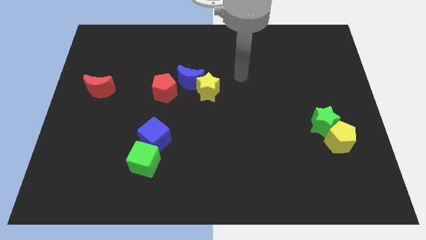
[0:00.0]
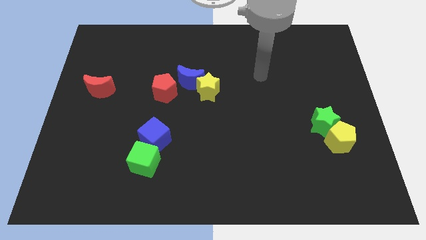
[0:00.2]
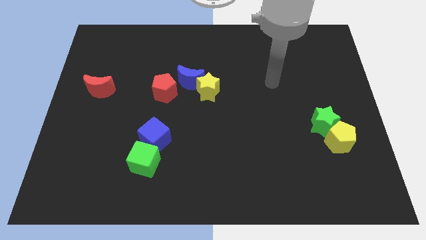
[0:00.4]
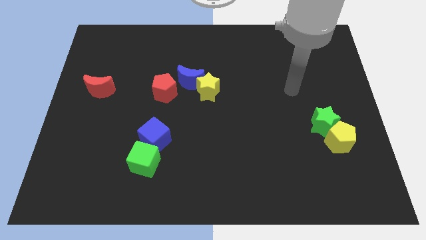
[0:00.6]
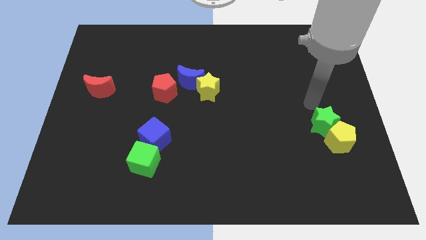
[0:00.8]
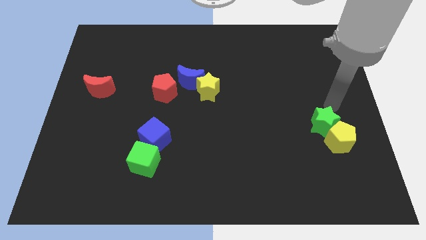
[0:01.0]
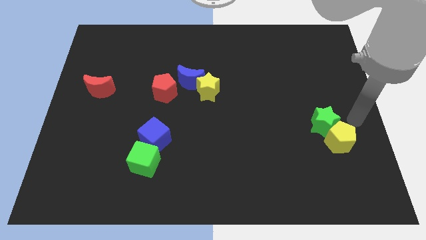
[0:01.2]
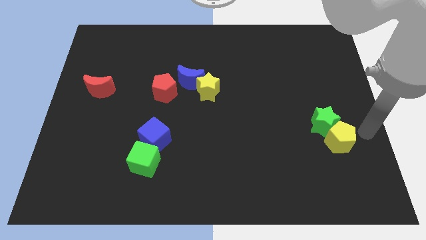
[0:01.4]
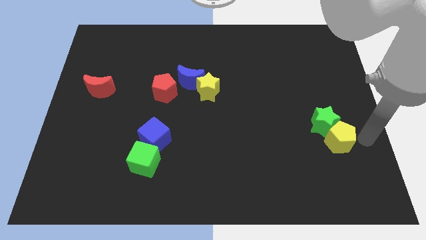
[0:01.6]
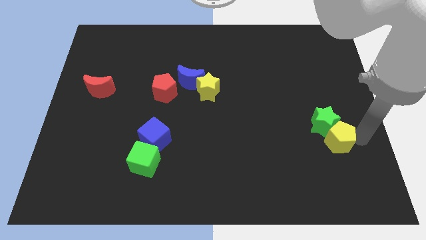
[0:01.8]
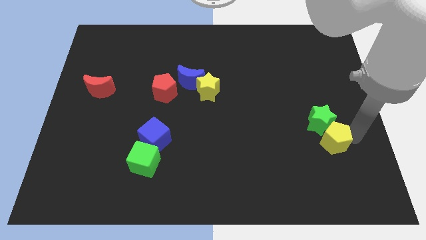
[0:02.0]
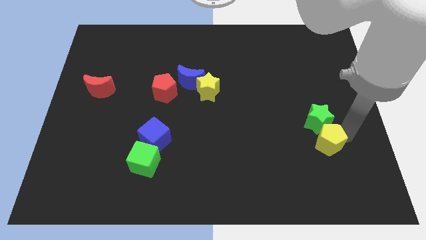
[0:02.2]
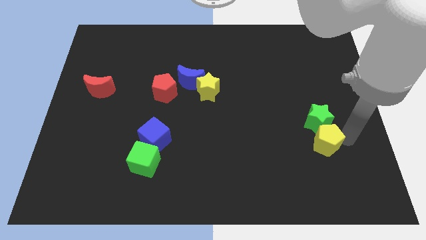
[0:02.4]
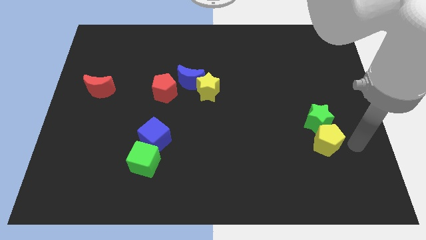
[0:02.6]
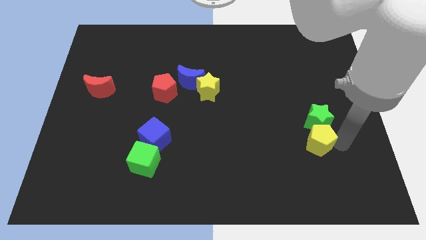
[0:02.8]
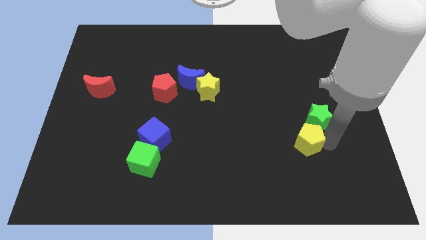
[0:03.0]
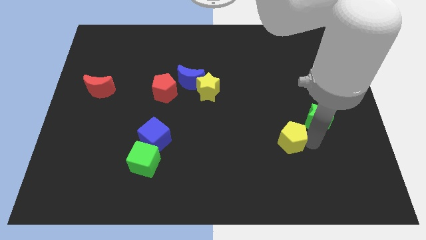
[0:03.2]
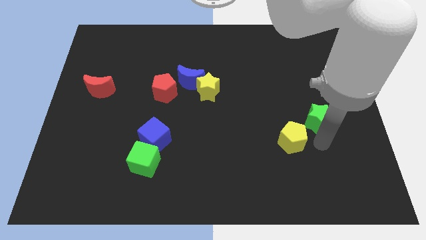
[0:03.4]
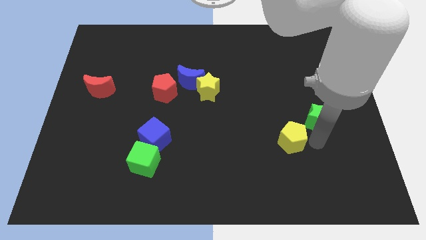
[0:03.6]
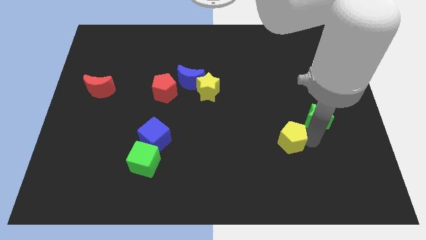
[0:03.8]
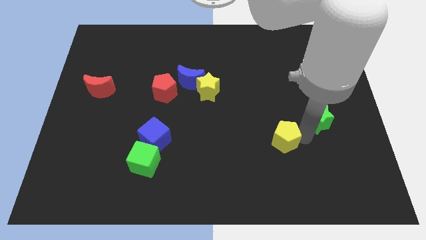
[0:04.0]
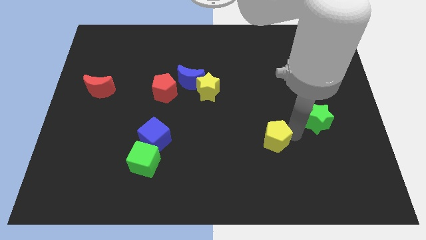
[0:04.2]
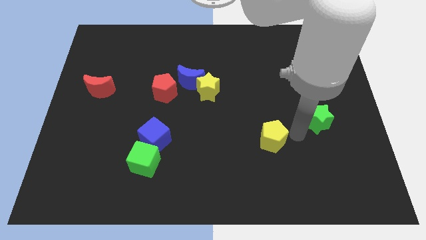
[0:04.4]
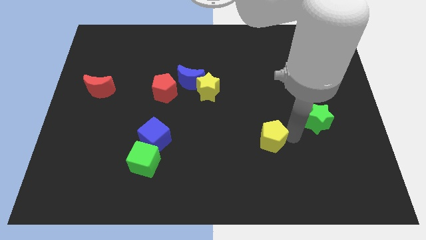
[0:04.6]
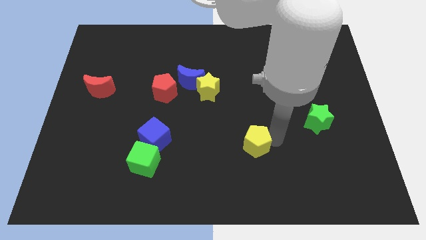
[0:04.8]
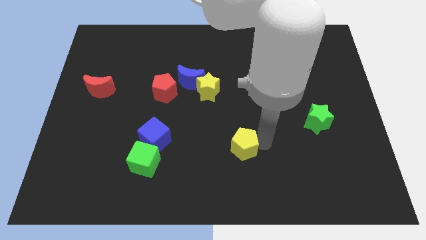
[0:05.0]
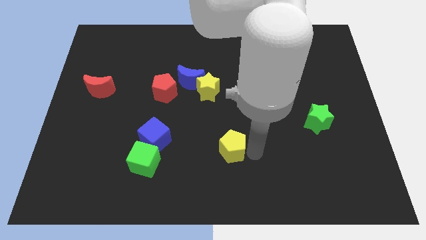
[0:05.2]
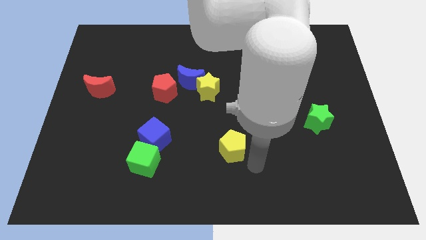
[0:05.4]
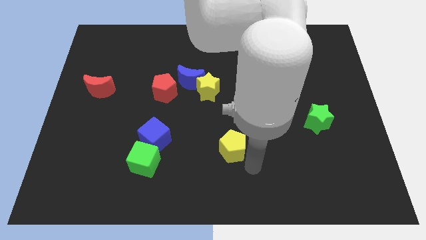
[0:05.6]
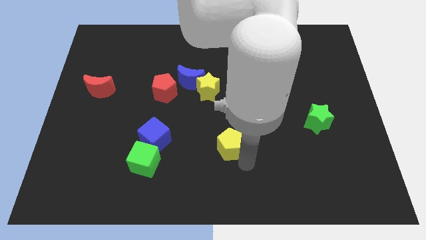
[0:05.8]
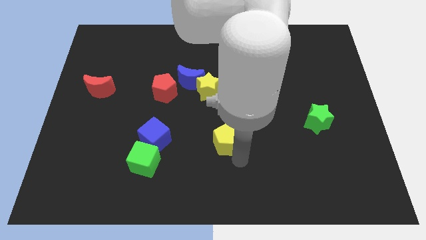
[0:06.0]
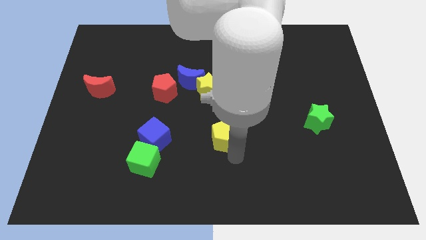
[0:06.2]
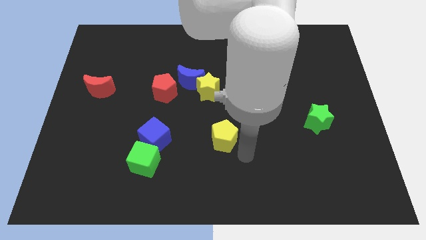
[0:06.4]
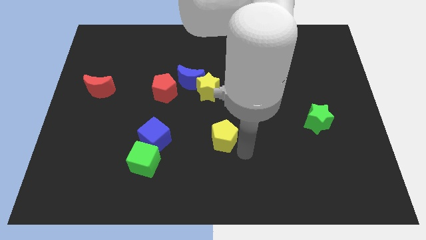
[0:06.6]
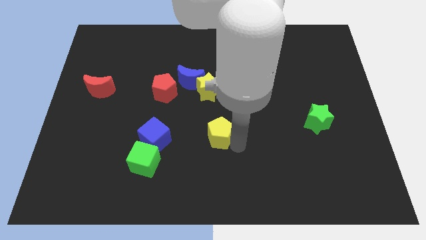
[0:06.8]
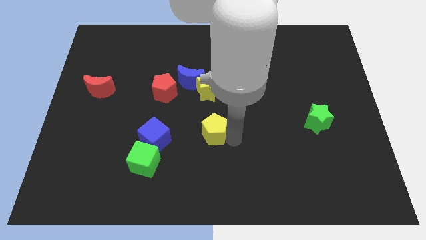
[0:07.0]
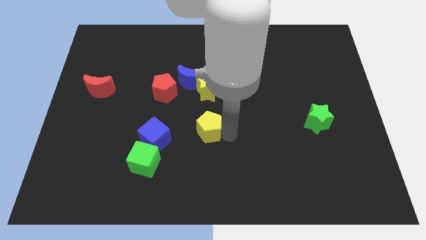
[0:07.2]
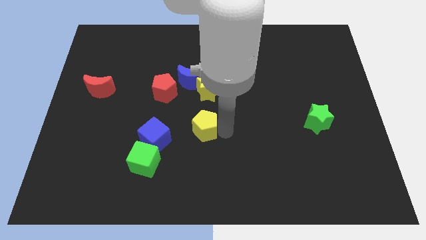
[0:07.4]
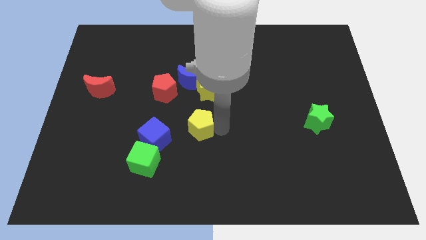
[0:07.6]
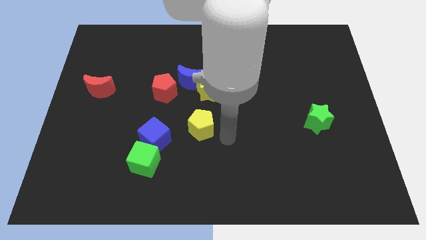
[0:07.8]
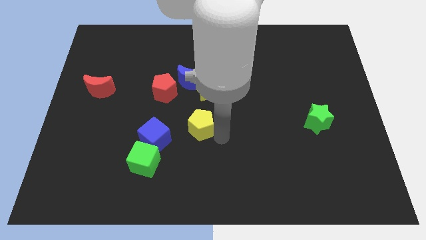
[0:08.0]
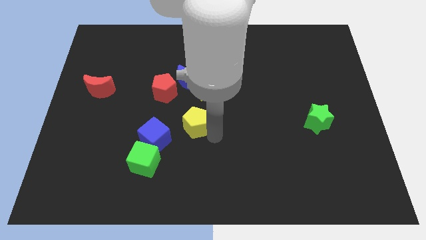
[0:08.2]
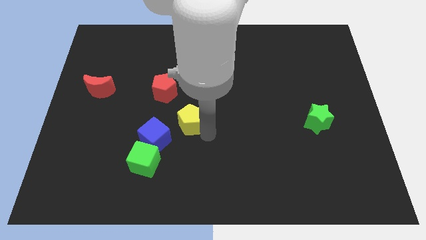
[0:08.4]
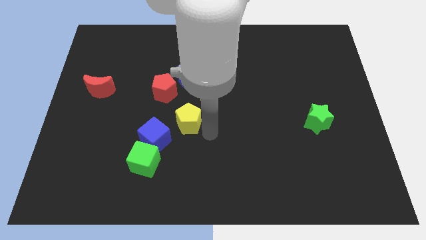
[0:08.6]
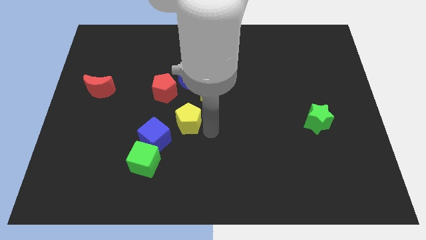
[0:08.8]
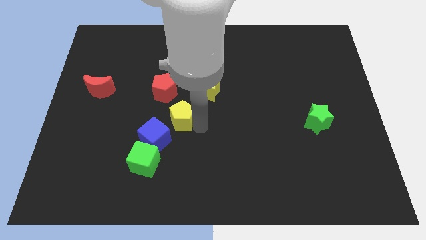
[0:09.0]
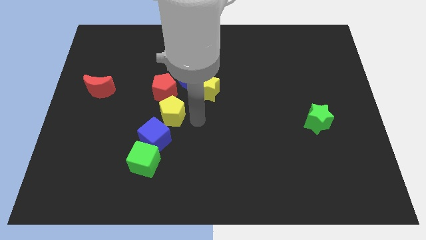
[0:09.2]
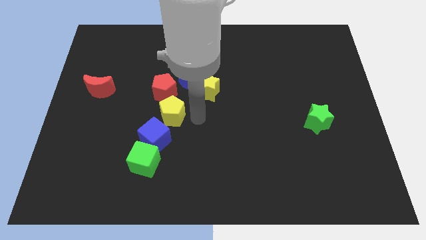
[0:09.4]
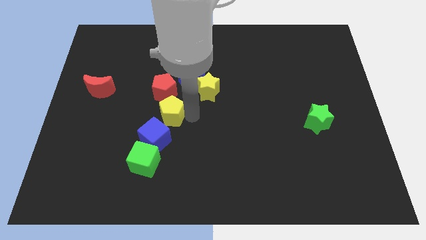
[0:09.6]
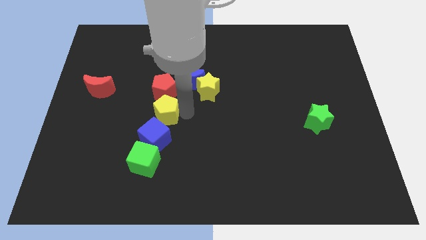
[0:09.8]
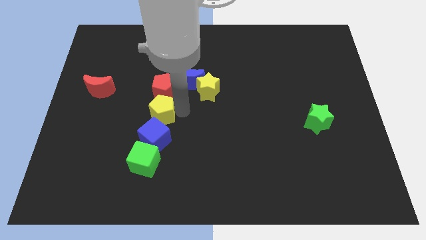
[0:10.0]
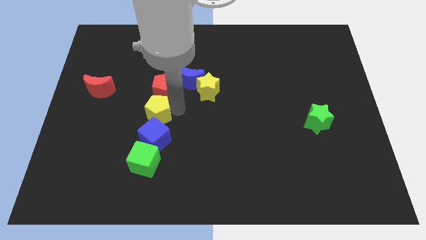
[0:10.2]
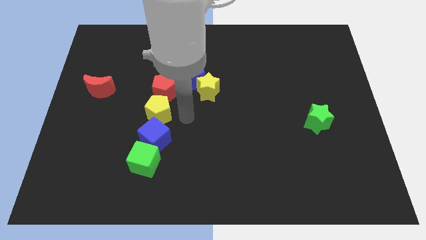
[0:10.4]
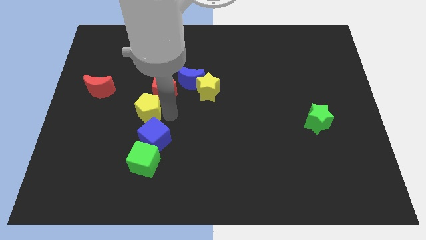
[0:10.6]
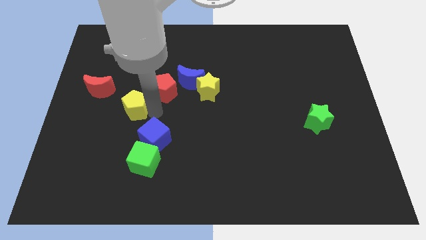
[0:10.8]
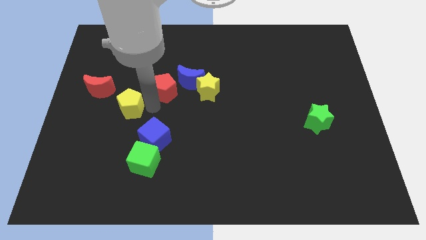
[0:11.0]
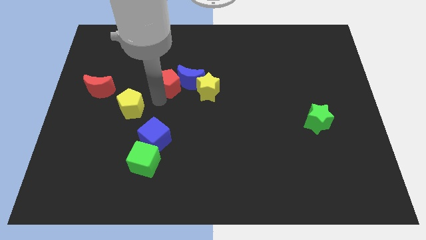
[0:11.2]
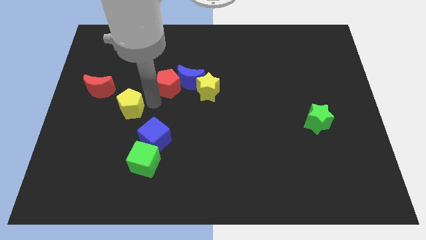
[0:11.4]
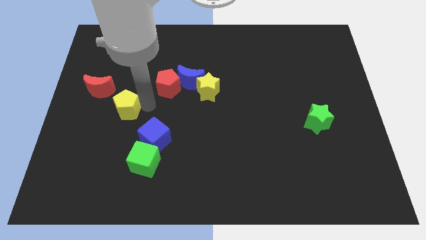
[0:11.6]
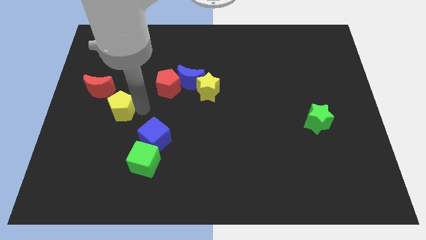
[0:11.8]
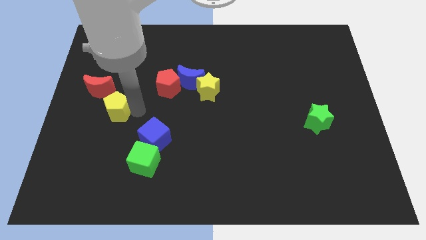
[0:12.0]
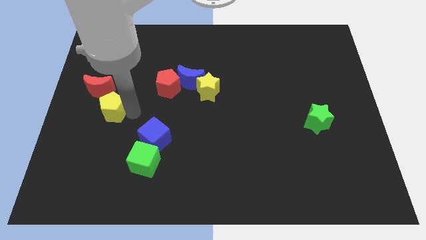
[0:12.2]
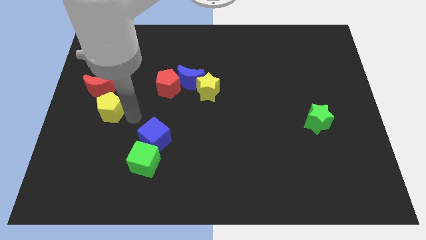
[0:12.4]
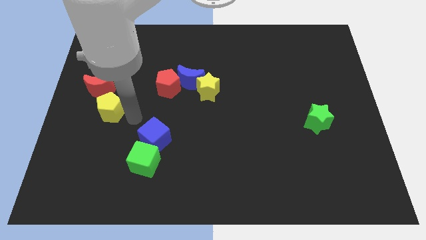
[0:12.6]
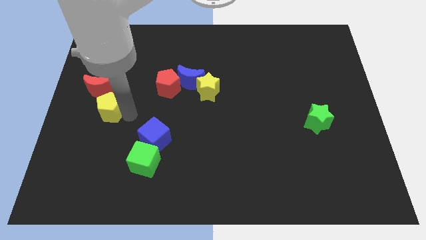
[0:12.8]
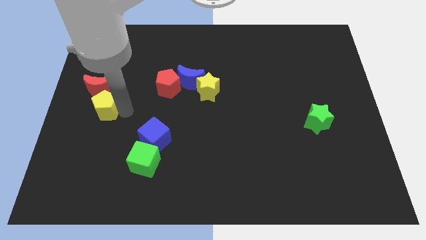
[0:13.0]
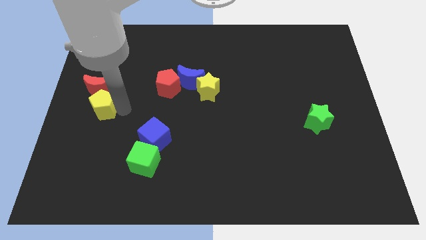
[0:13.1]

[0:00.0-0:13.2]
put the yellow pentagon to the left side
